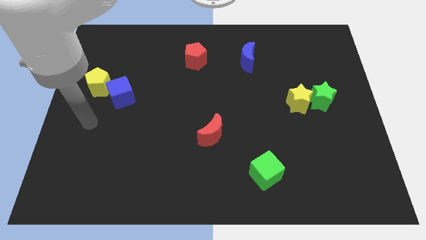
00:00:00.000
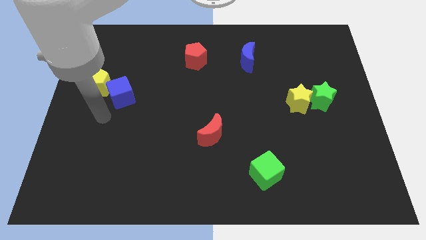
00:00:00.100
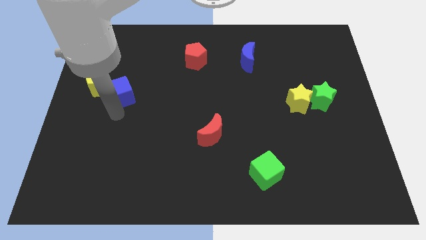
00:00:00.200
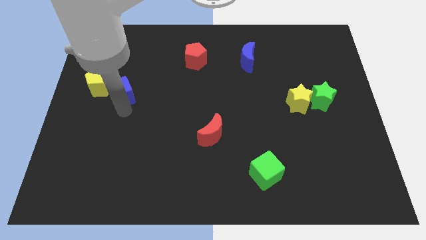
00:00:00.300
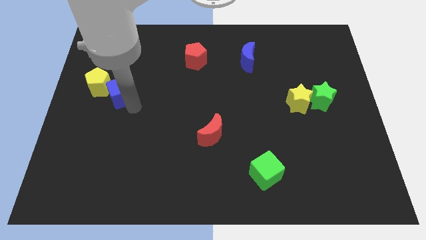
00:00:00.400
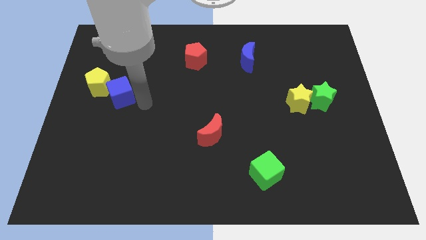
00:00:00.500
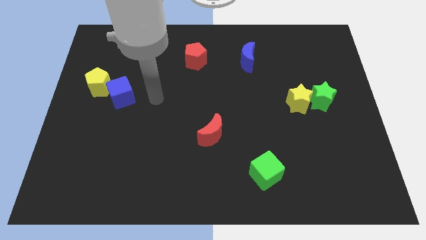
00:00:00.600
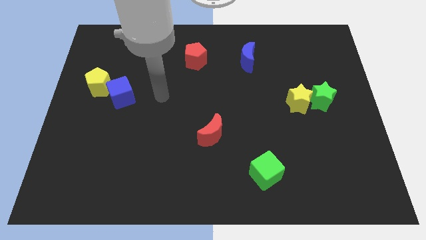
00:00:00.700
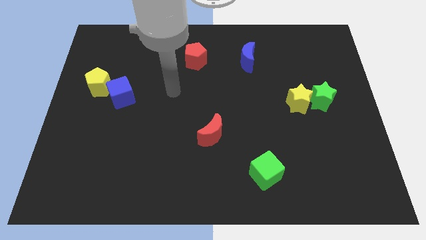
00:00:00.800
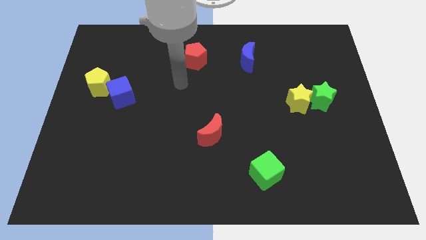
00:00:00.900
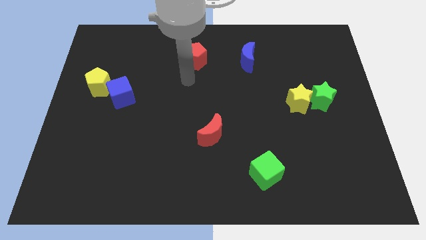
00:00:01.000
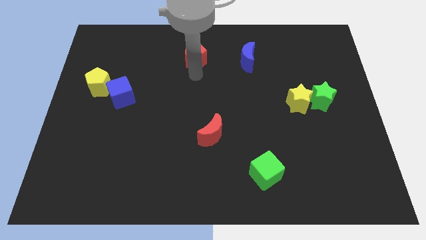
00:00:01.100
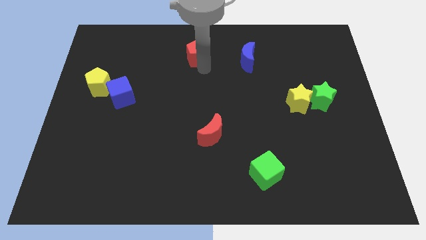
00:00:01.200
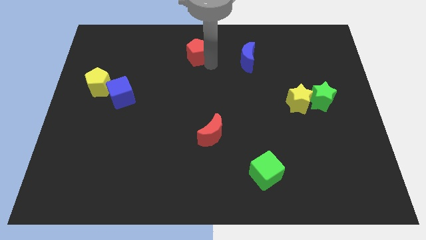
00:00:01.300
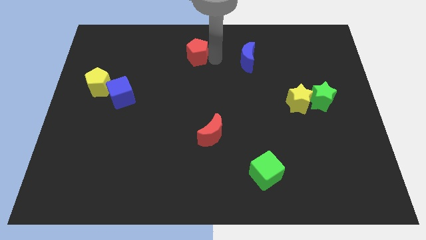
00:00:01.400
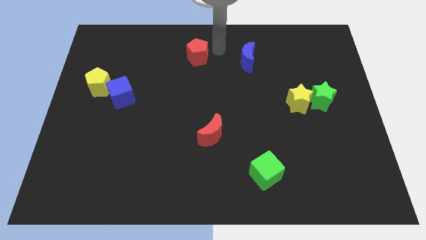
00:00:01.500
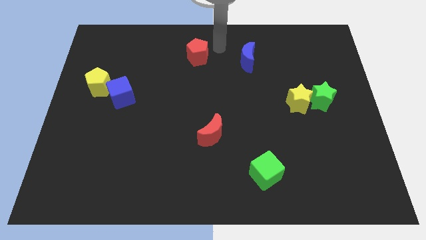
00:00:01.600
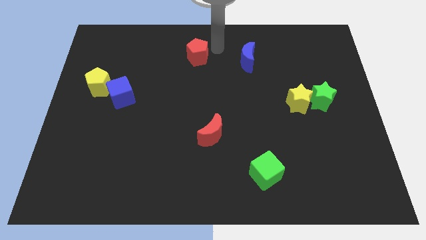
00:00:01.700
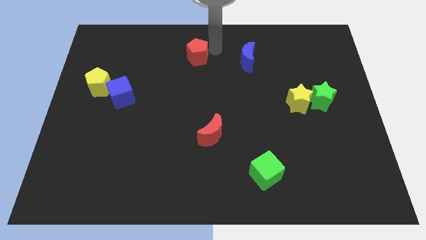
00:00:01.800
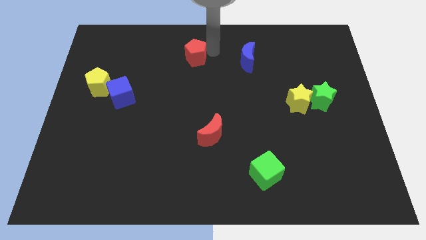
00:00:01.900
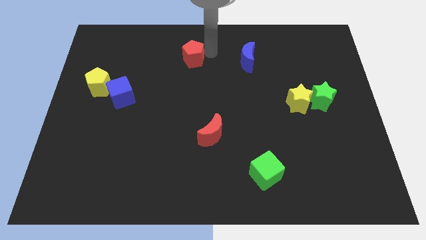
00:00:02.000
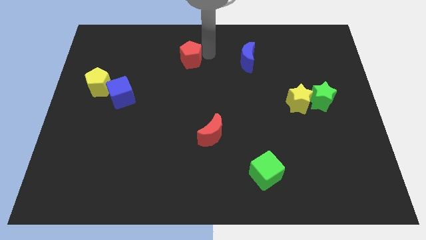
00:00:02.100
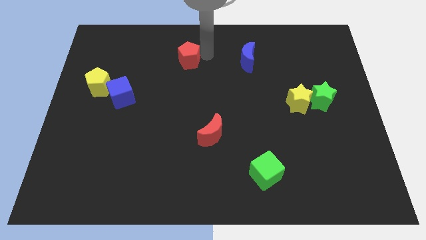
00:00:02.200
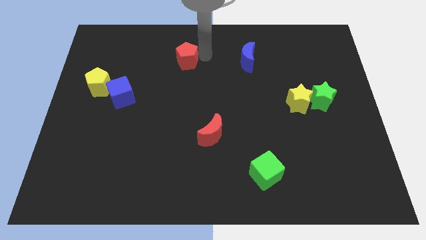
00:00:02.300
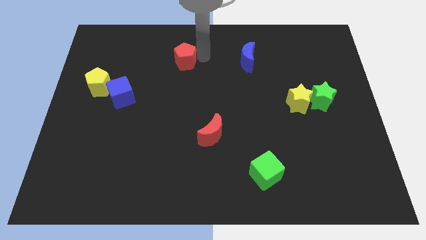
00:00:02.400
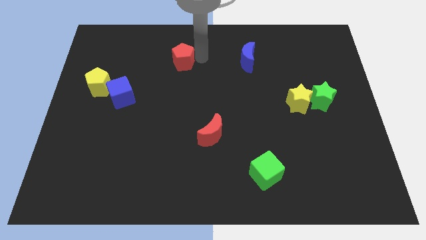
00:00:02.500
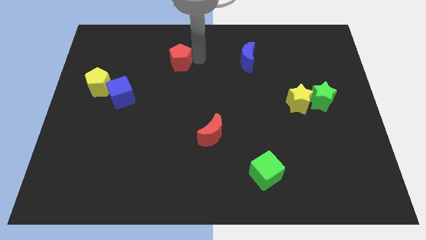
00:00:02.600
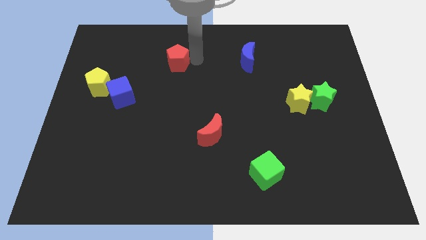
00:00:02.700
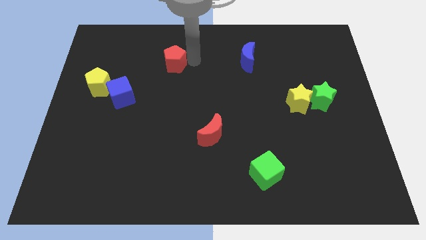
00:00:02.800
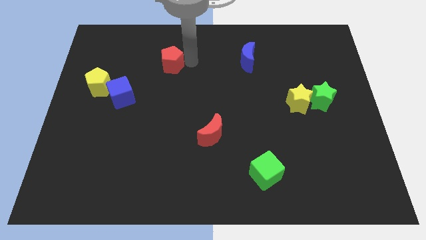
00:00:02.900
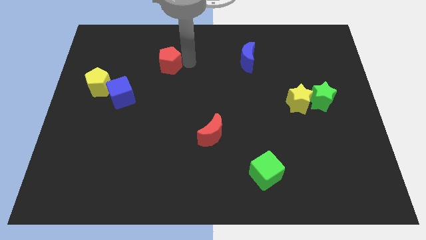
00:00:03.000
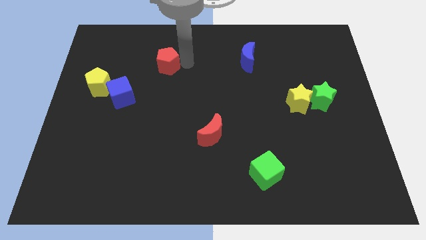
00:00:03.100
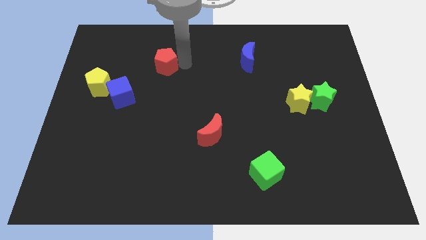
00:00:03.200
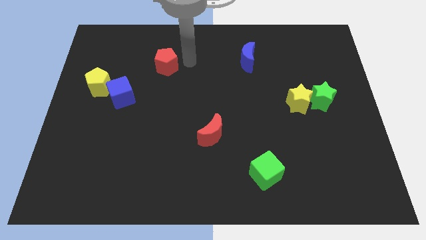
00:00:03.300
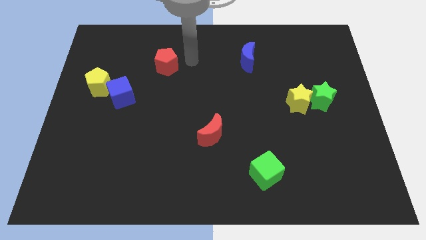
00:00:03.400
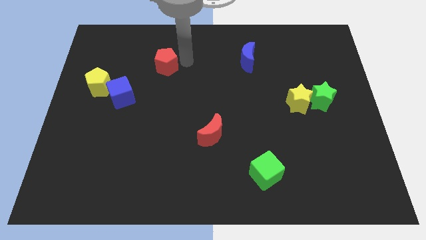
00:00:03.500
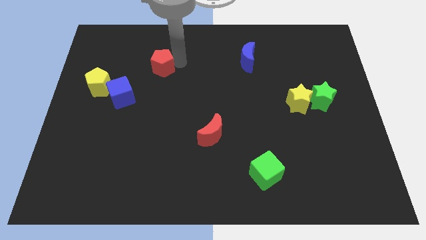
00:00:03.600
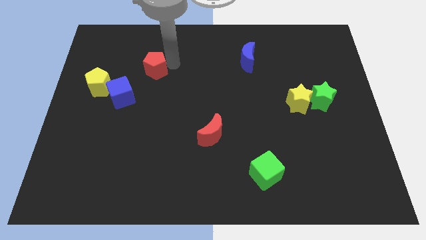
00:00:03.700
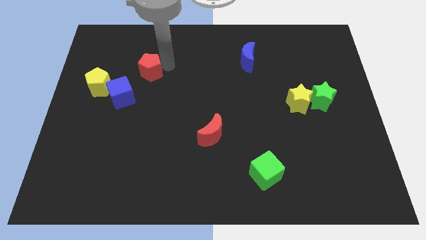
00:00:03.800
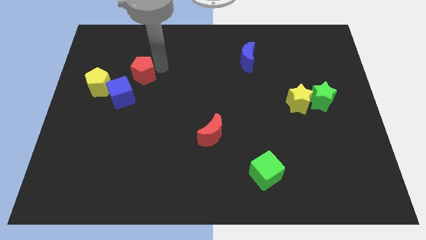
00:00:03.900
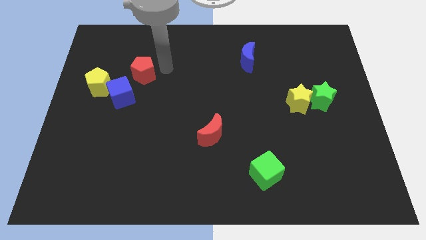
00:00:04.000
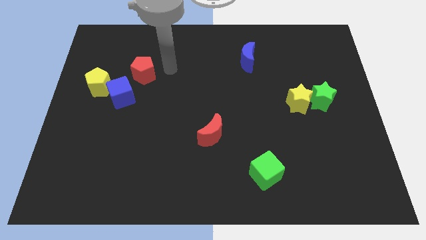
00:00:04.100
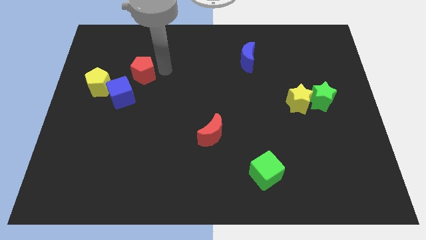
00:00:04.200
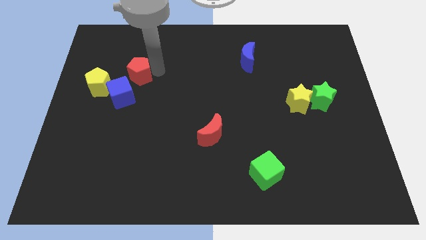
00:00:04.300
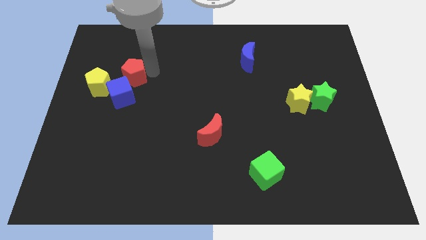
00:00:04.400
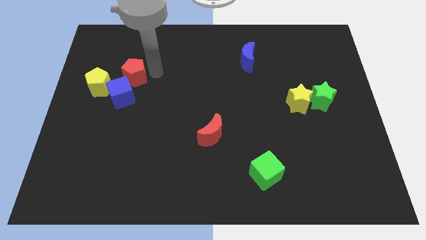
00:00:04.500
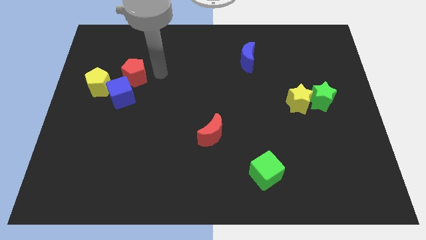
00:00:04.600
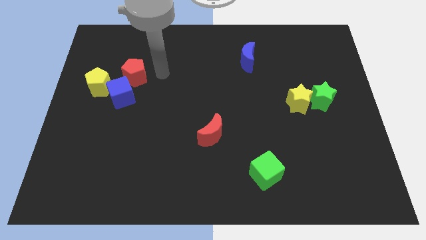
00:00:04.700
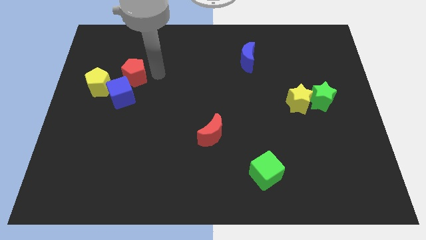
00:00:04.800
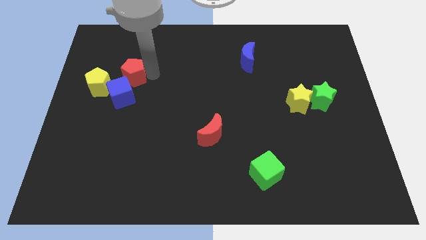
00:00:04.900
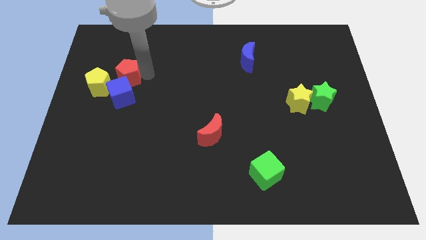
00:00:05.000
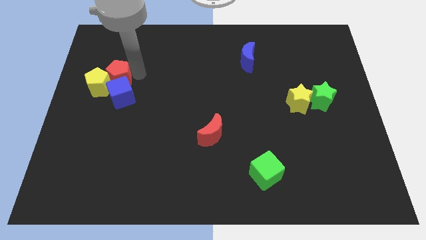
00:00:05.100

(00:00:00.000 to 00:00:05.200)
move the red pentagon towards the yellow pentagon

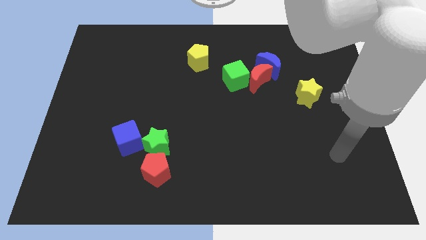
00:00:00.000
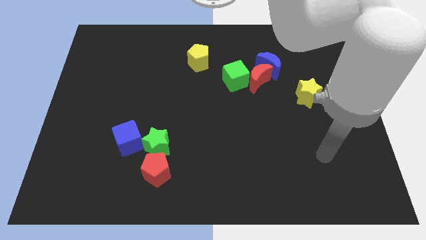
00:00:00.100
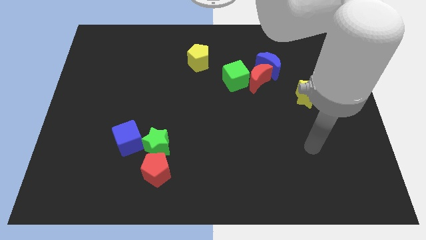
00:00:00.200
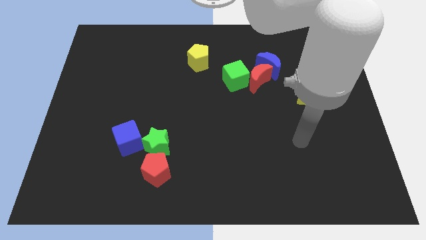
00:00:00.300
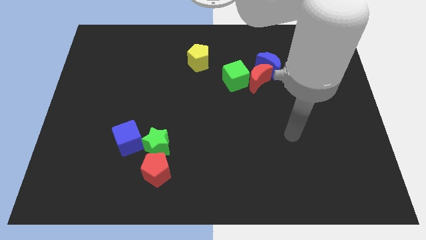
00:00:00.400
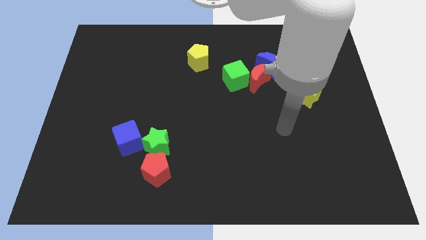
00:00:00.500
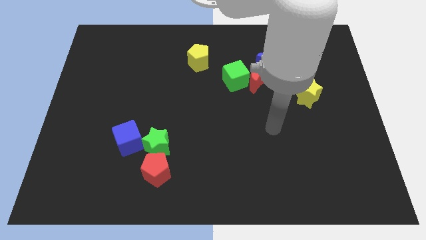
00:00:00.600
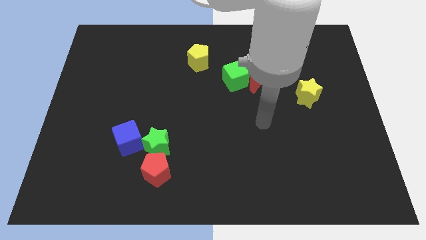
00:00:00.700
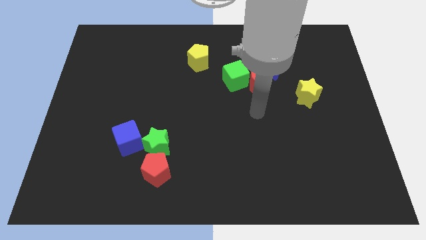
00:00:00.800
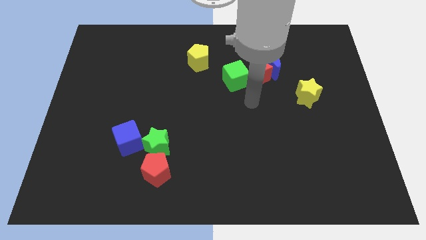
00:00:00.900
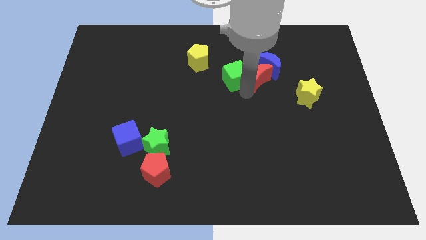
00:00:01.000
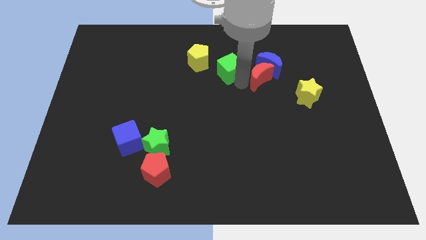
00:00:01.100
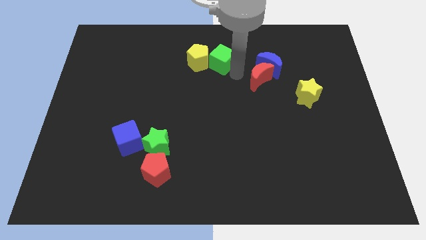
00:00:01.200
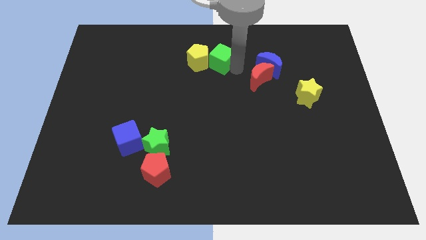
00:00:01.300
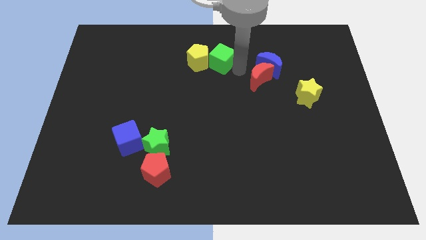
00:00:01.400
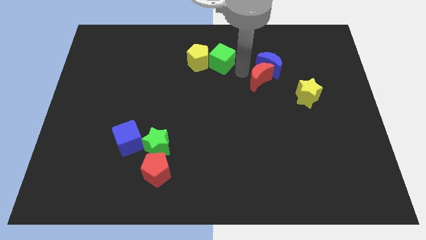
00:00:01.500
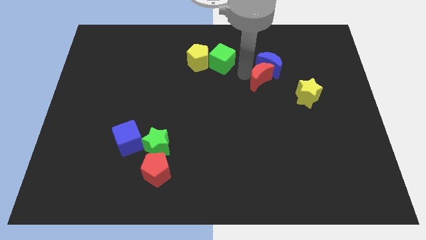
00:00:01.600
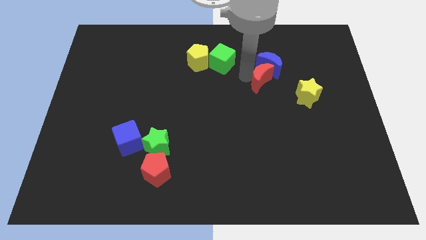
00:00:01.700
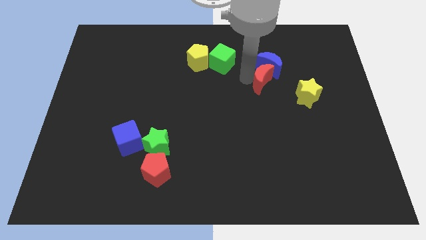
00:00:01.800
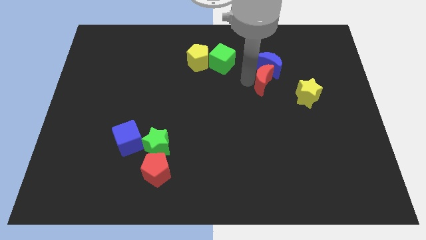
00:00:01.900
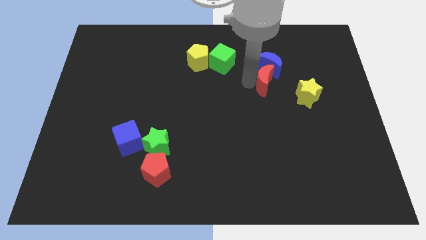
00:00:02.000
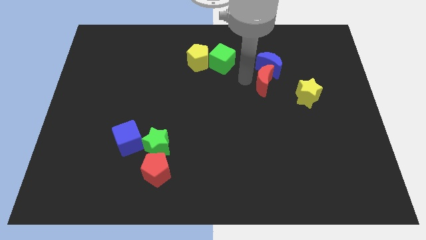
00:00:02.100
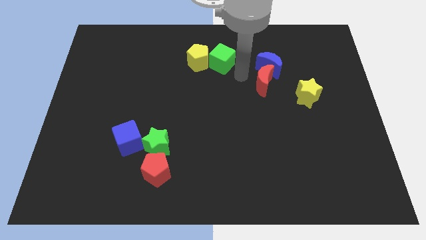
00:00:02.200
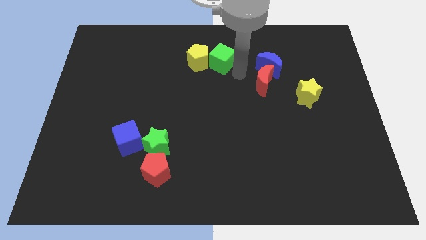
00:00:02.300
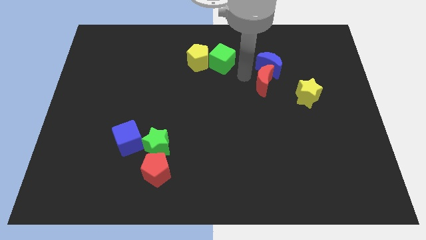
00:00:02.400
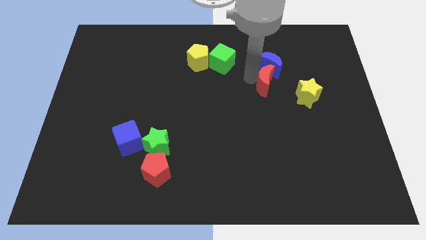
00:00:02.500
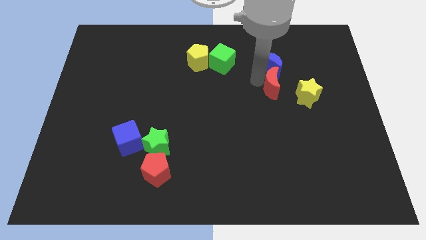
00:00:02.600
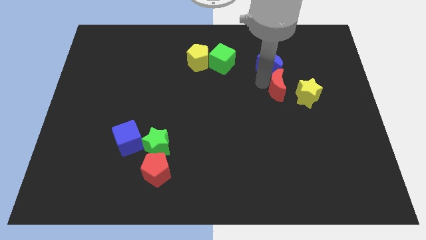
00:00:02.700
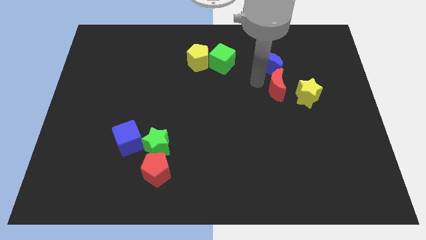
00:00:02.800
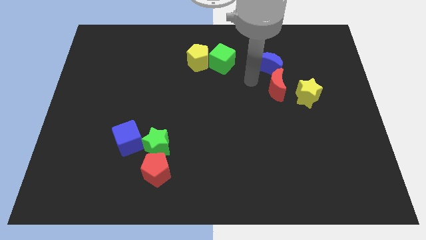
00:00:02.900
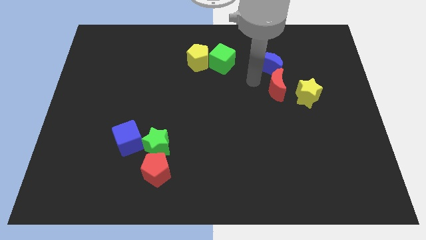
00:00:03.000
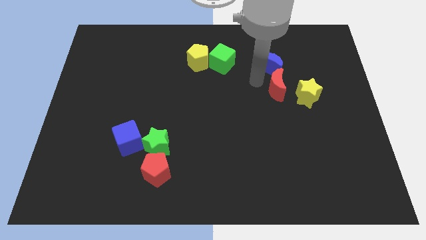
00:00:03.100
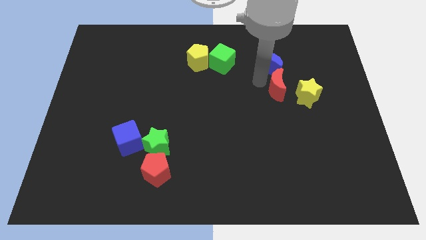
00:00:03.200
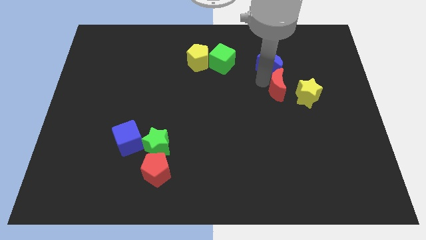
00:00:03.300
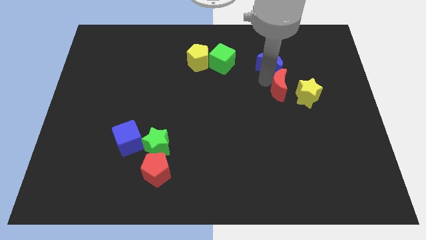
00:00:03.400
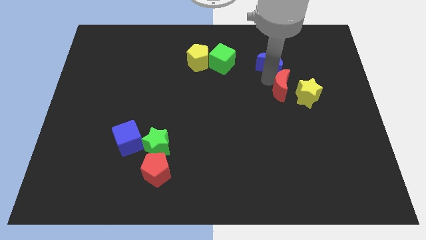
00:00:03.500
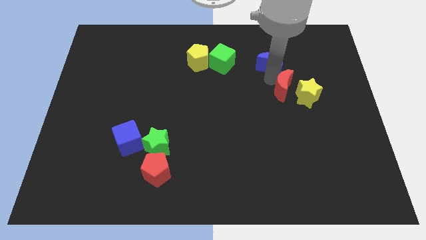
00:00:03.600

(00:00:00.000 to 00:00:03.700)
move the red moon to the yellow star
